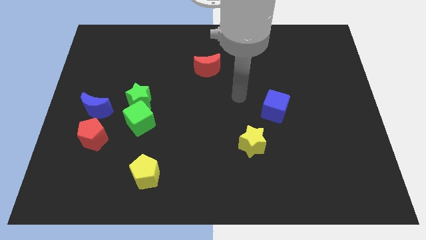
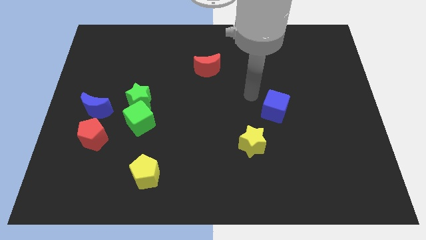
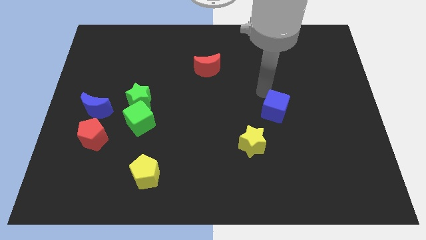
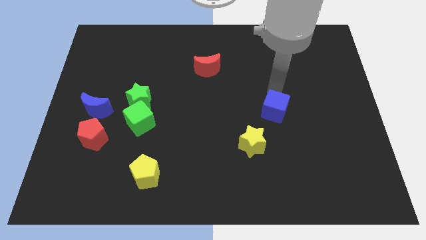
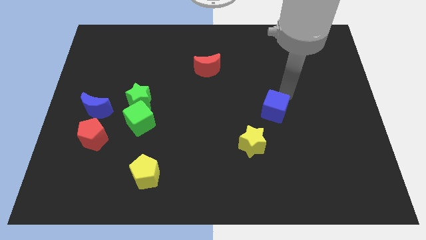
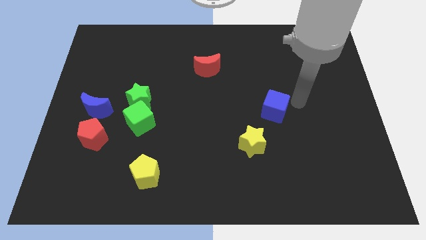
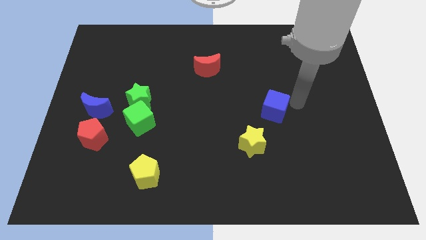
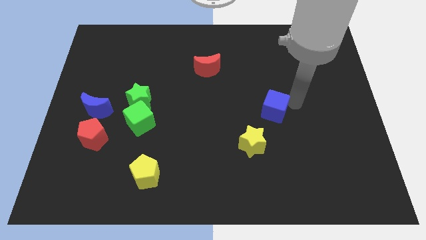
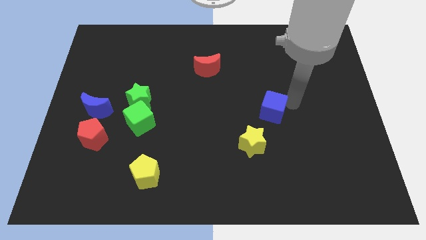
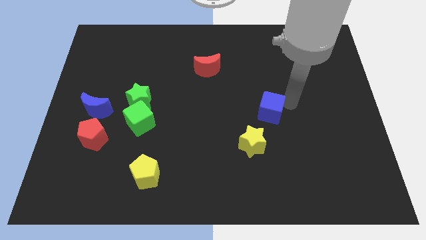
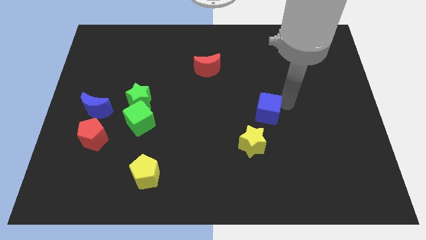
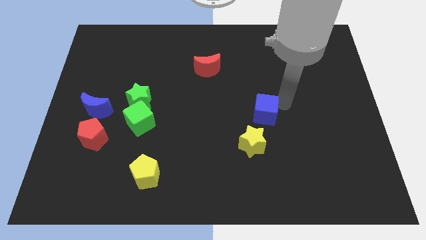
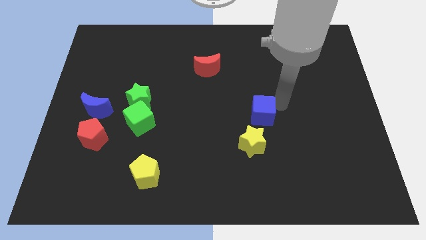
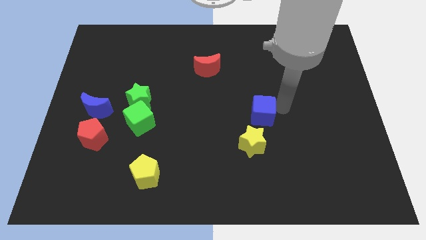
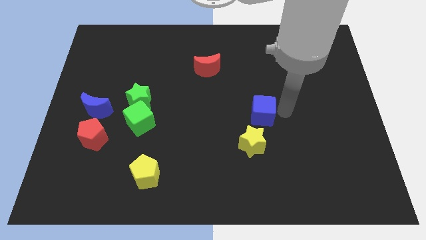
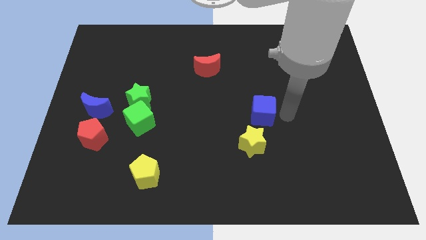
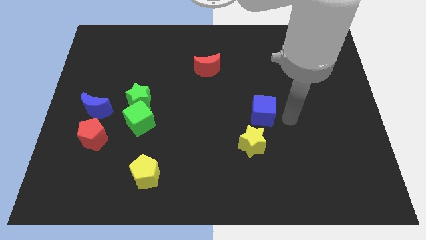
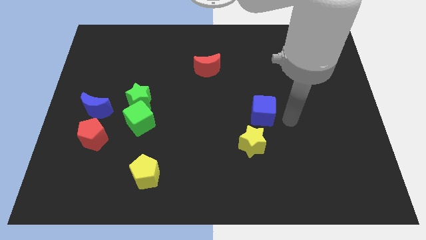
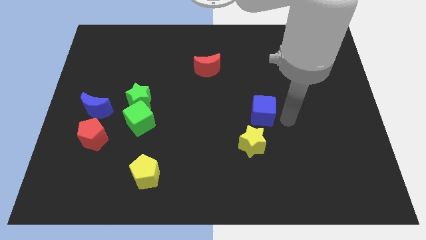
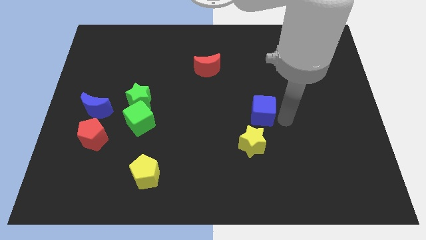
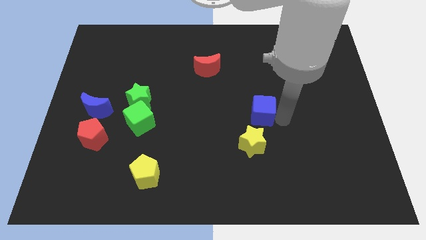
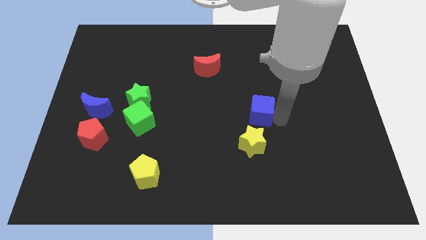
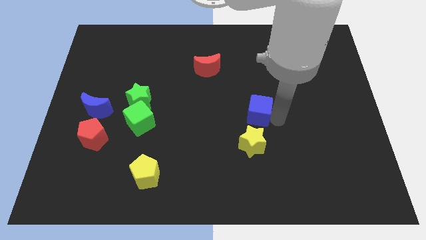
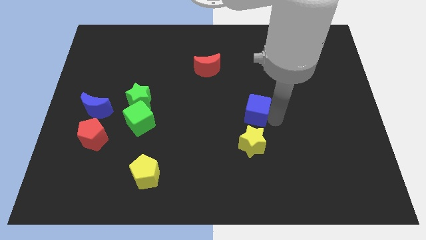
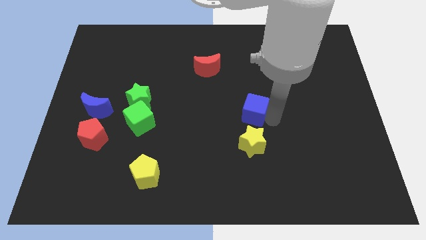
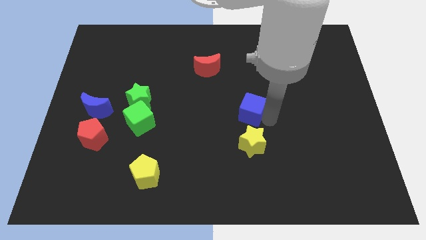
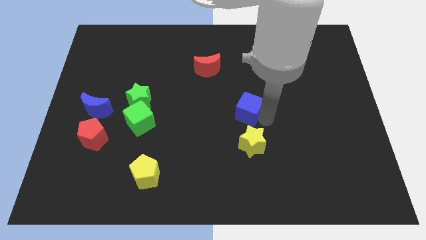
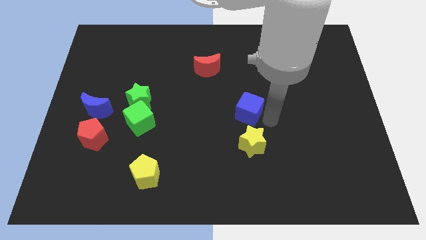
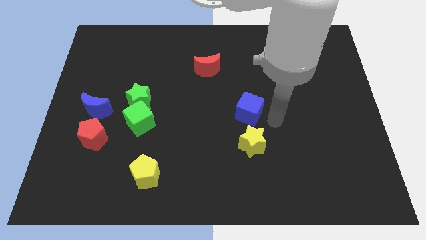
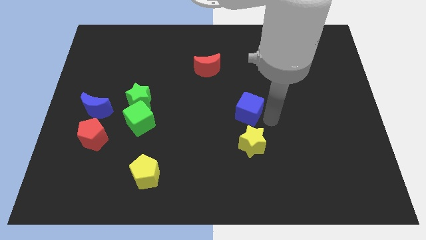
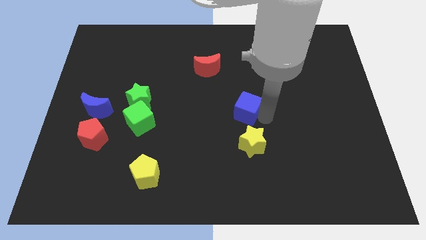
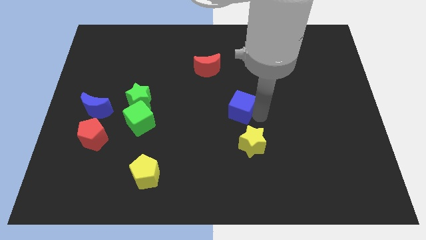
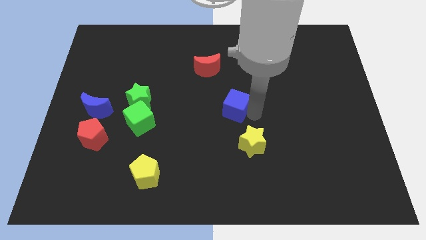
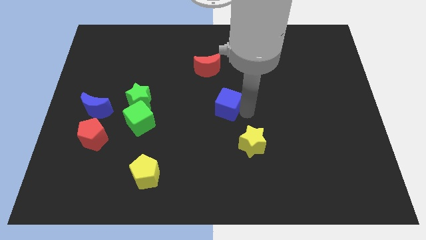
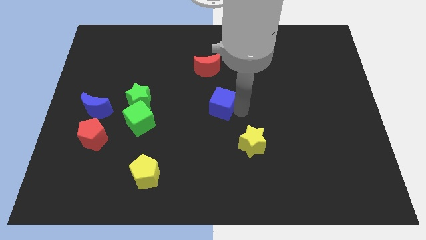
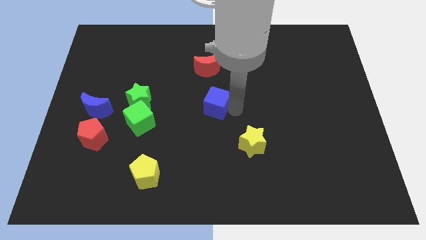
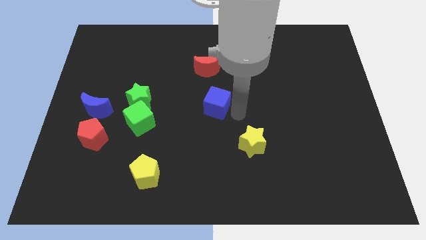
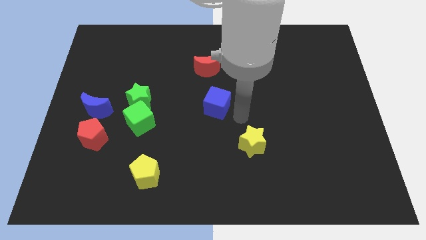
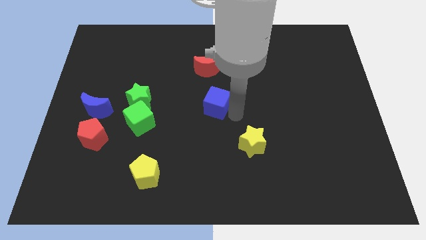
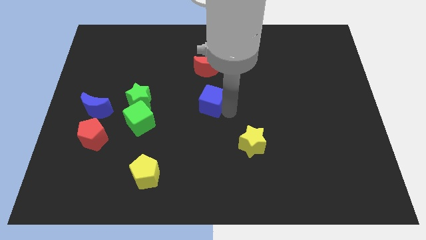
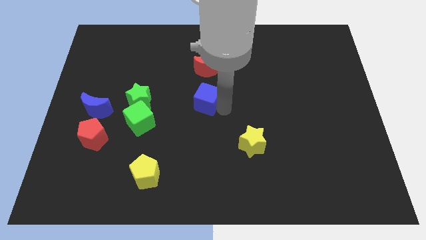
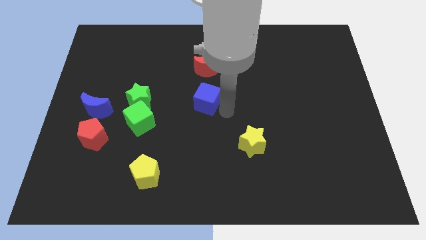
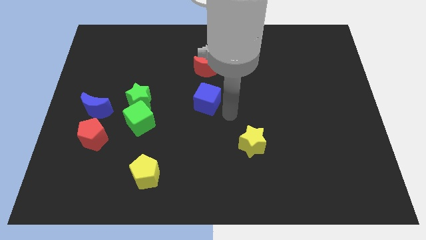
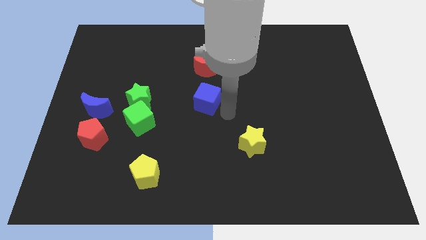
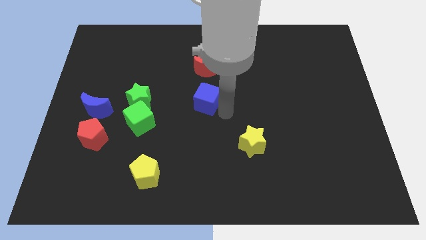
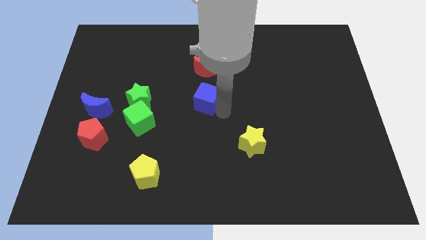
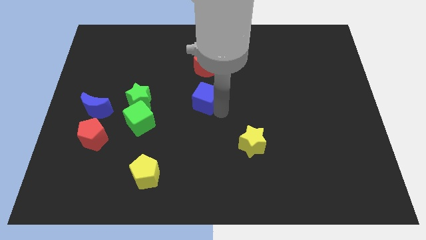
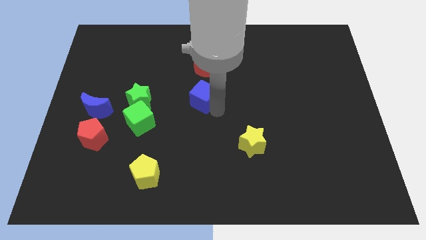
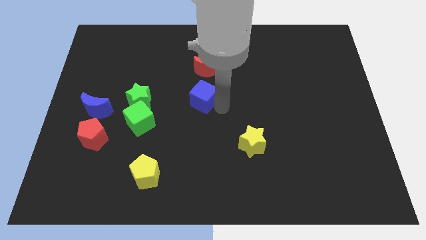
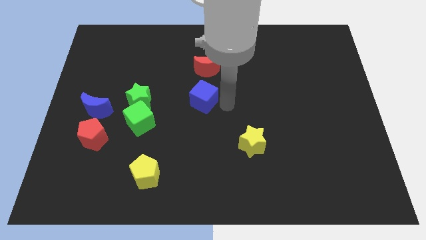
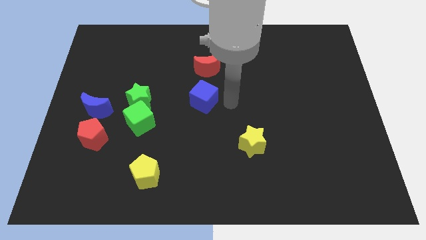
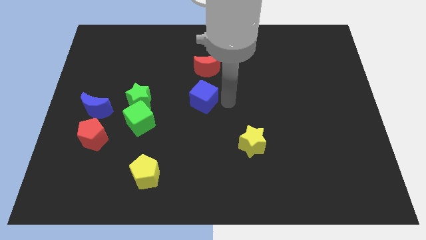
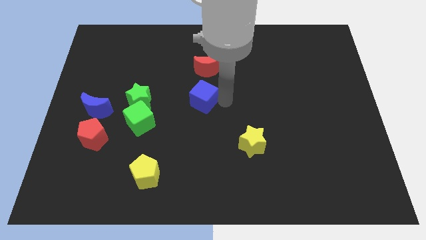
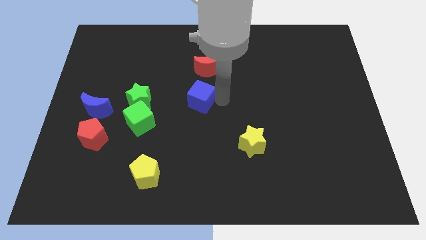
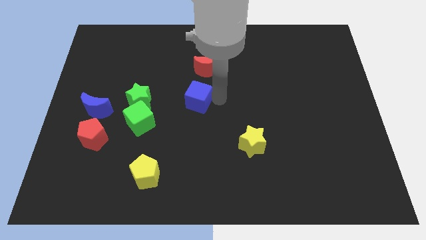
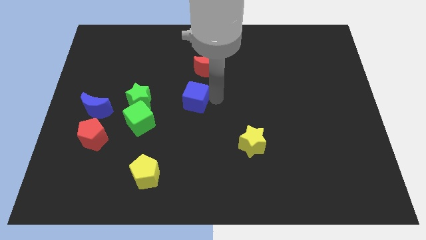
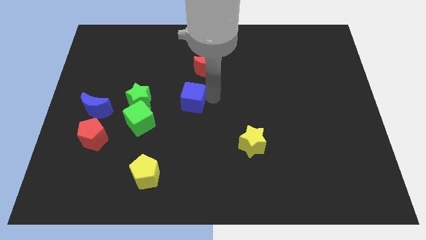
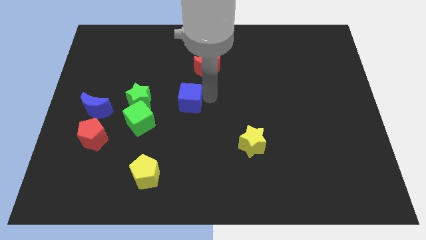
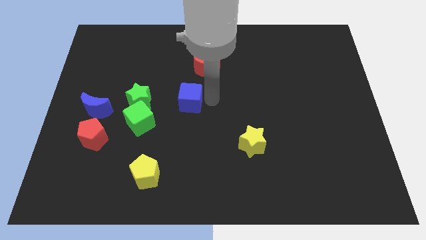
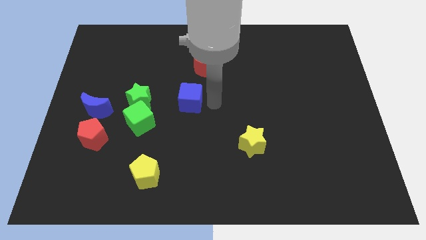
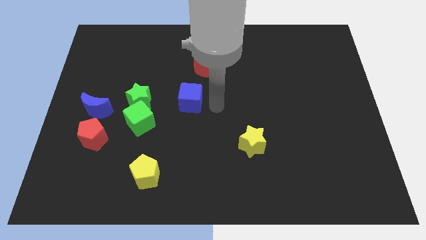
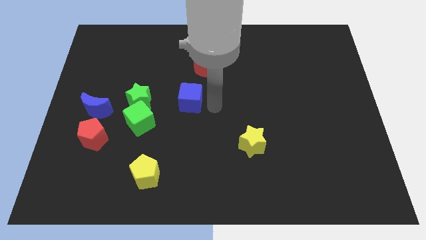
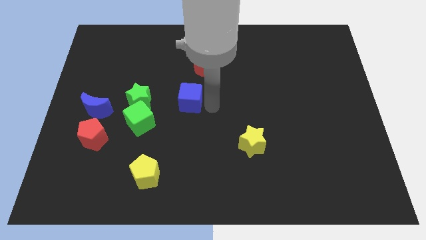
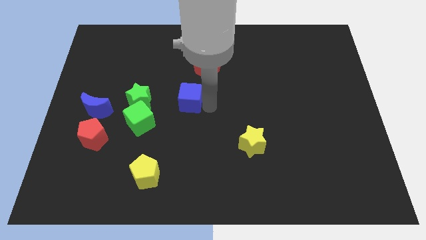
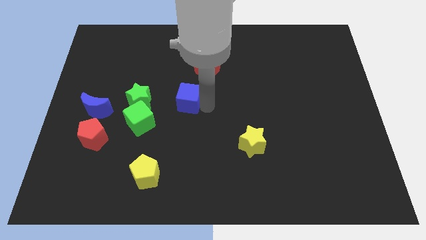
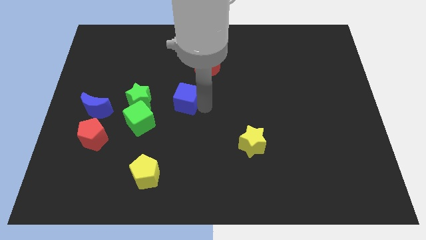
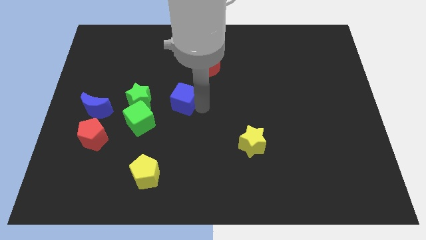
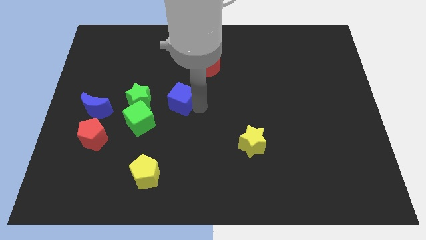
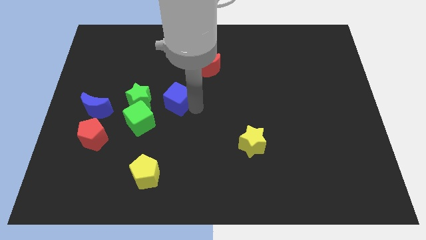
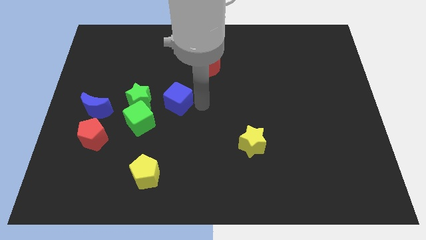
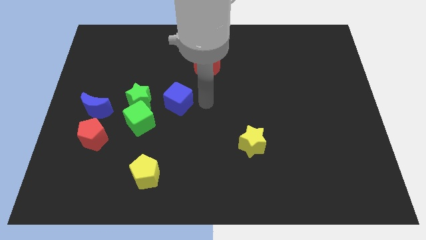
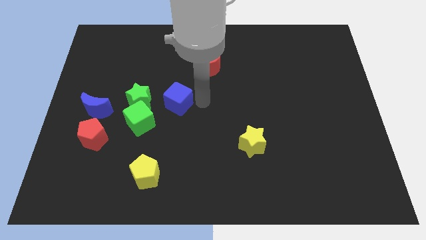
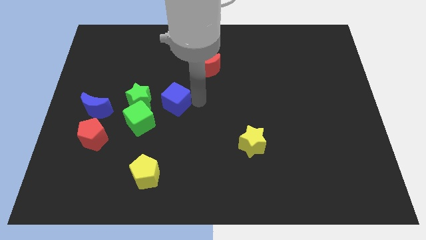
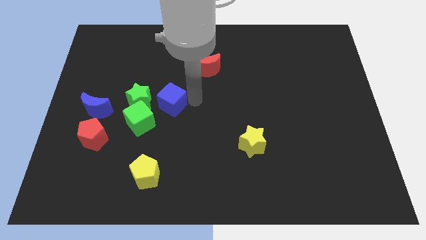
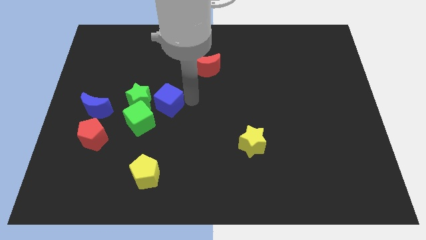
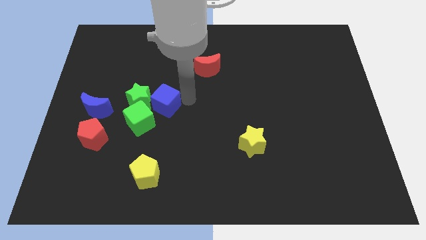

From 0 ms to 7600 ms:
move the blue cube towards the green star
